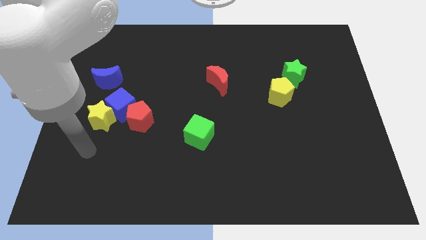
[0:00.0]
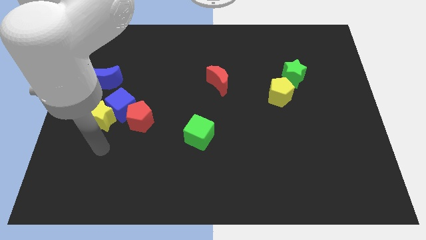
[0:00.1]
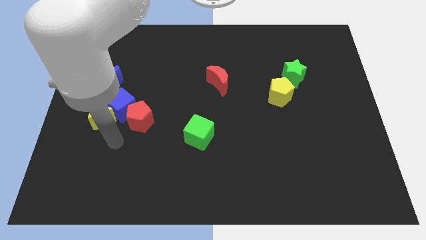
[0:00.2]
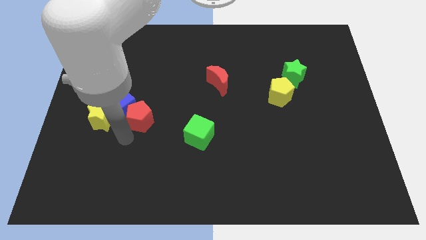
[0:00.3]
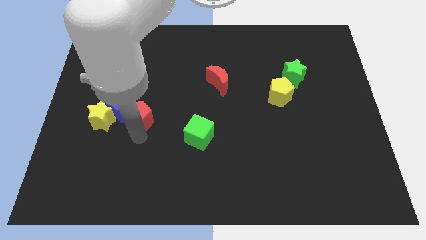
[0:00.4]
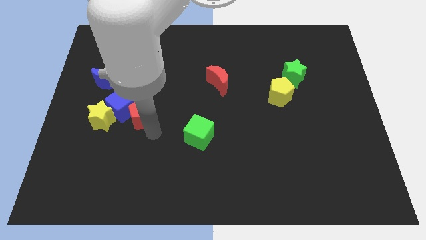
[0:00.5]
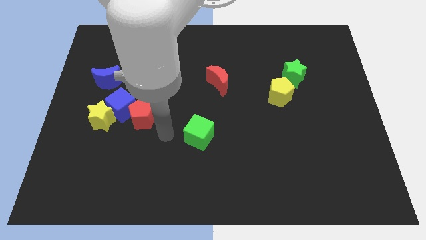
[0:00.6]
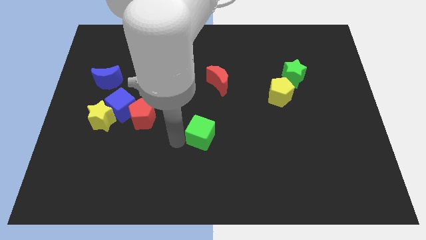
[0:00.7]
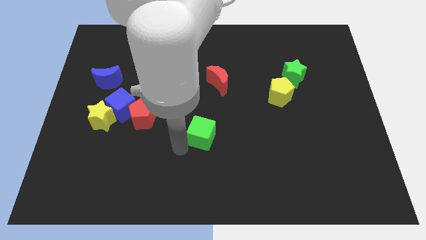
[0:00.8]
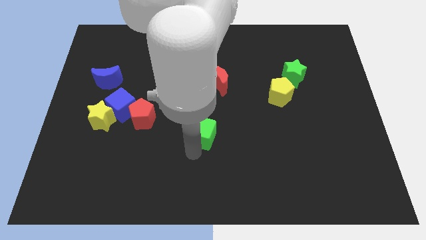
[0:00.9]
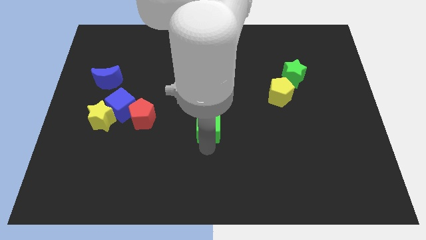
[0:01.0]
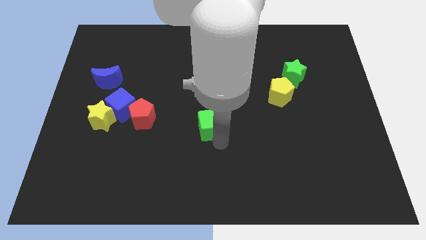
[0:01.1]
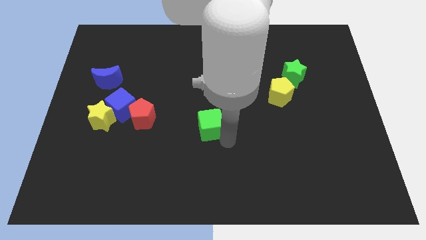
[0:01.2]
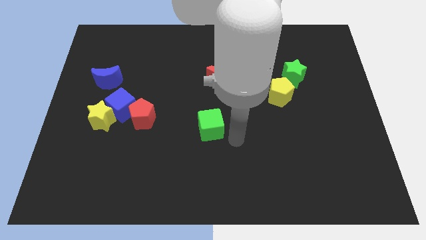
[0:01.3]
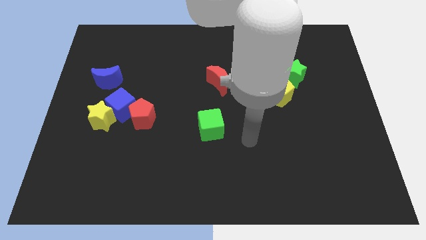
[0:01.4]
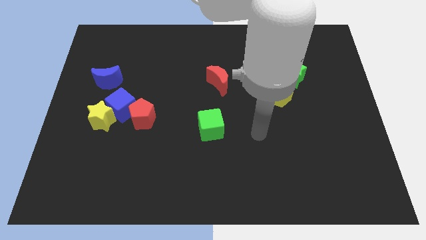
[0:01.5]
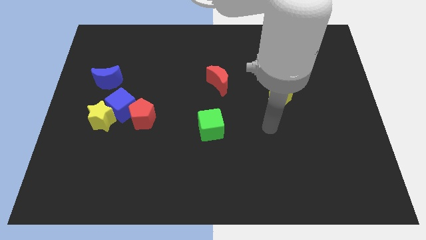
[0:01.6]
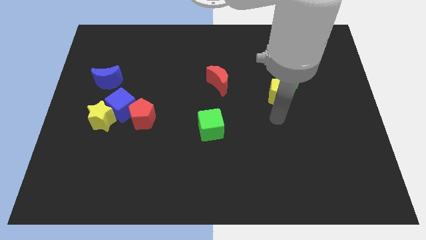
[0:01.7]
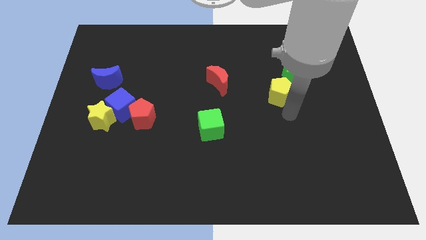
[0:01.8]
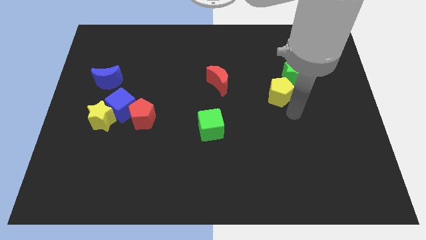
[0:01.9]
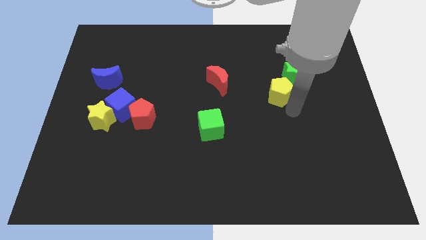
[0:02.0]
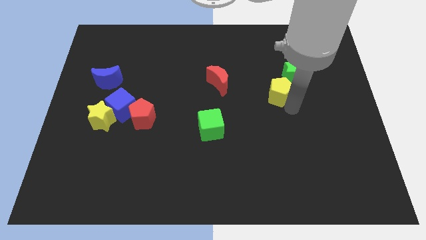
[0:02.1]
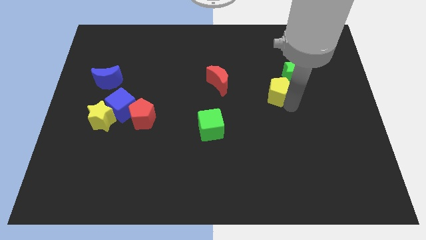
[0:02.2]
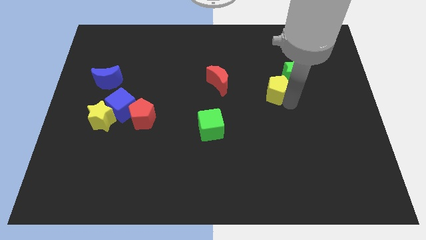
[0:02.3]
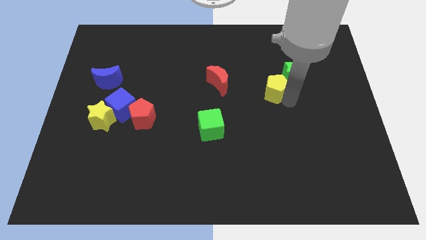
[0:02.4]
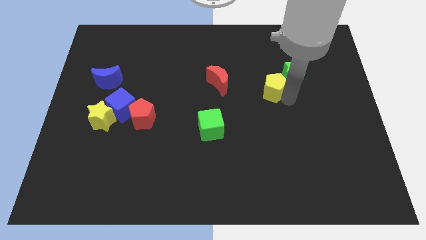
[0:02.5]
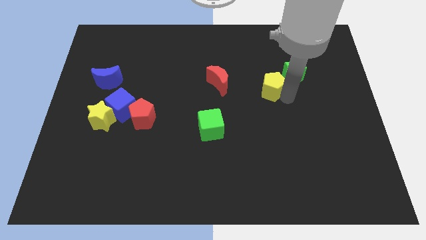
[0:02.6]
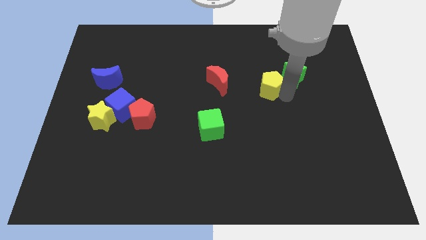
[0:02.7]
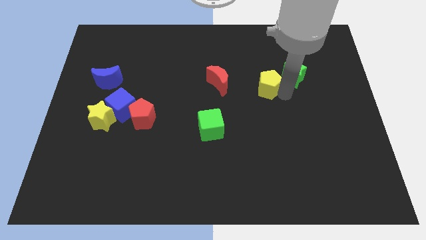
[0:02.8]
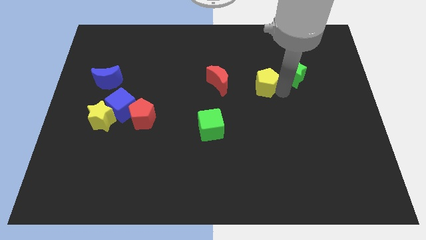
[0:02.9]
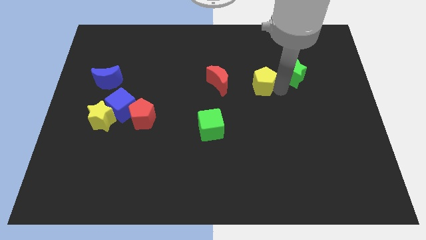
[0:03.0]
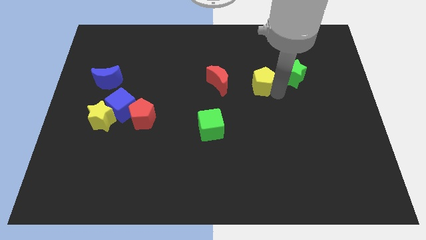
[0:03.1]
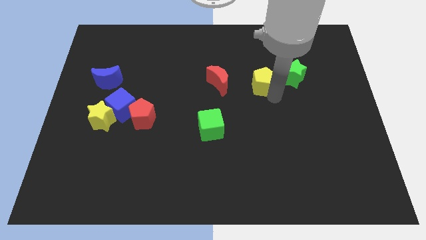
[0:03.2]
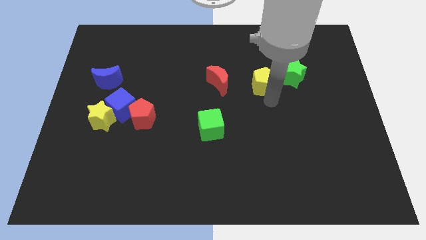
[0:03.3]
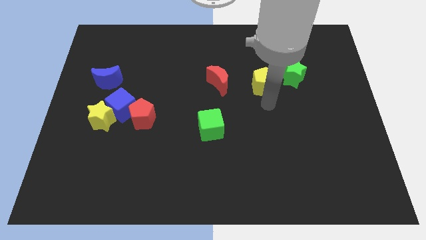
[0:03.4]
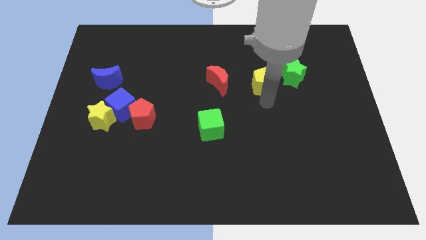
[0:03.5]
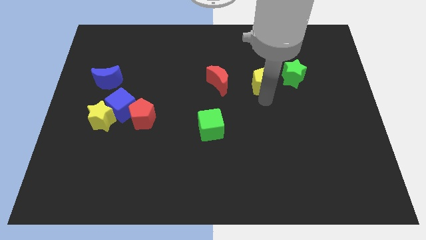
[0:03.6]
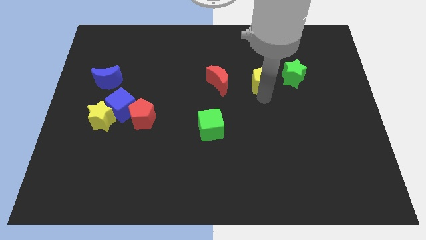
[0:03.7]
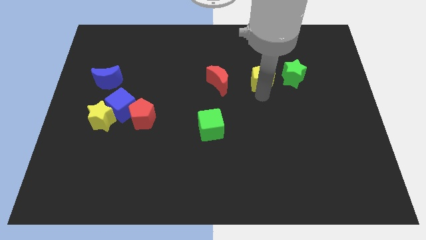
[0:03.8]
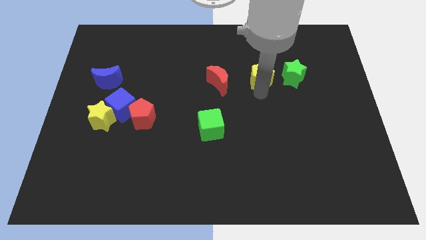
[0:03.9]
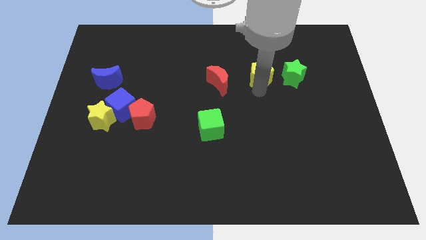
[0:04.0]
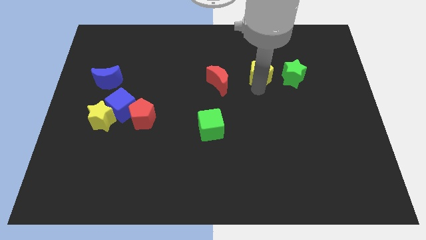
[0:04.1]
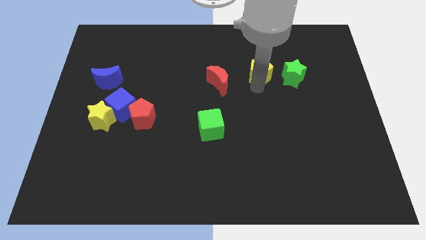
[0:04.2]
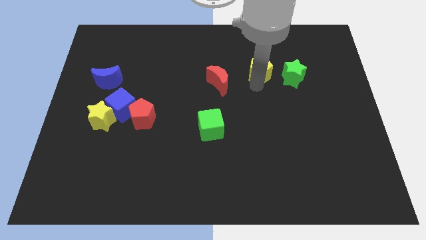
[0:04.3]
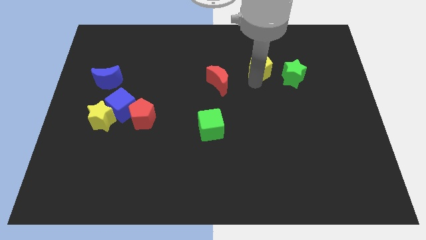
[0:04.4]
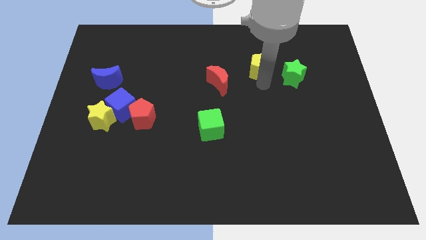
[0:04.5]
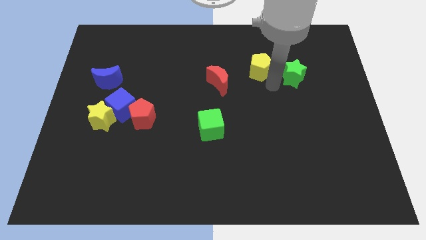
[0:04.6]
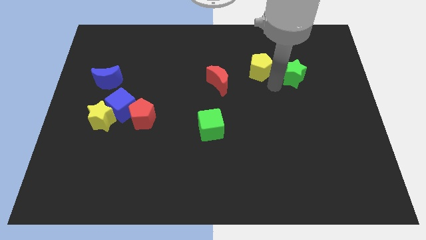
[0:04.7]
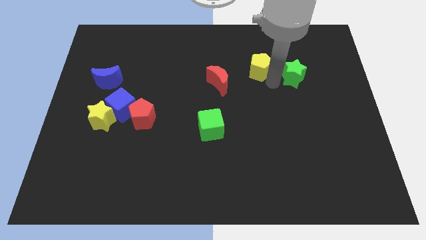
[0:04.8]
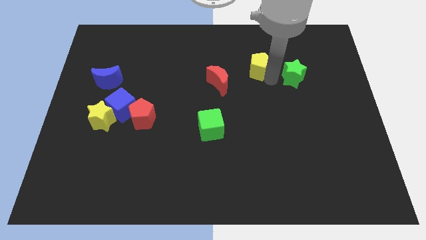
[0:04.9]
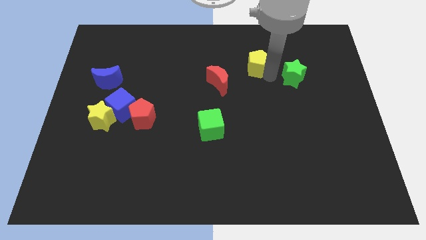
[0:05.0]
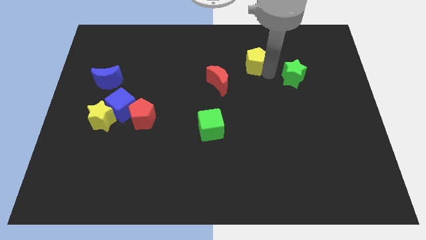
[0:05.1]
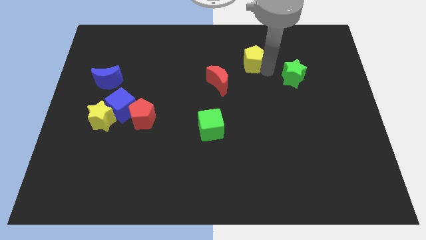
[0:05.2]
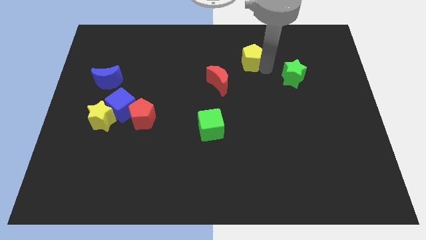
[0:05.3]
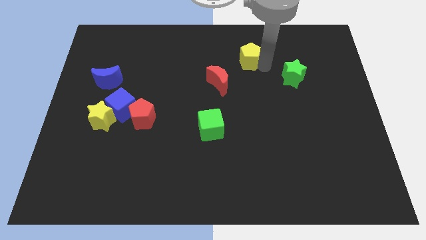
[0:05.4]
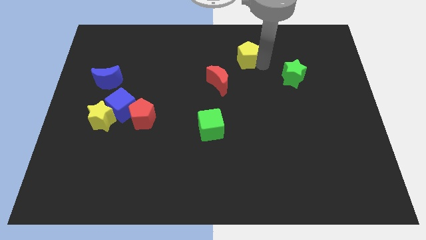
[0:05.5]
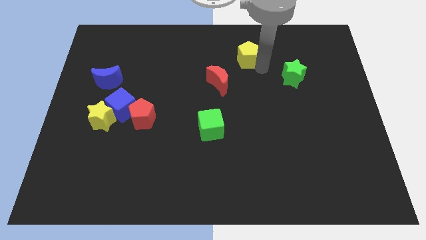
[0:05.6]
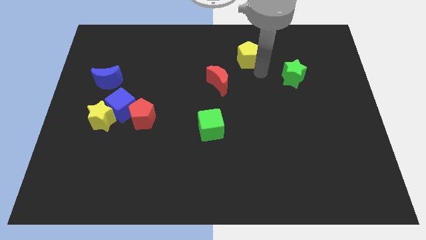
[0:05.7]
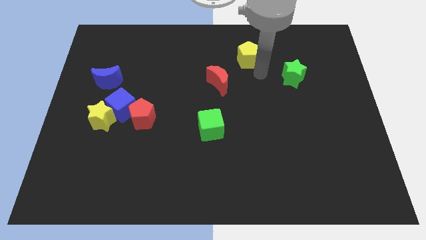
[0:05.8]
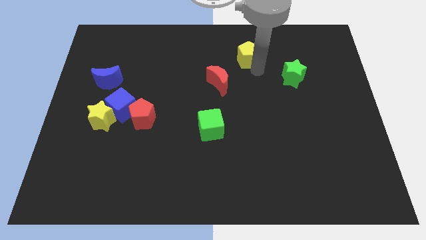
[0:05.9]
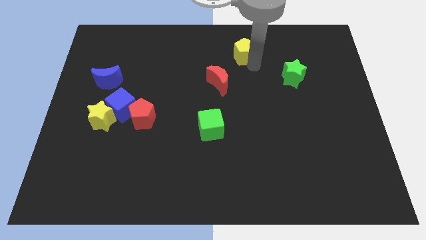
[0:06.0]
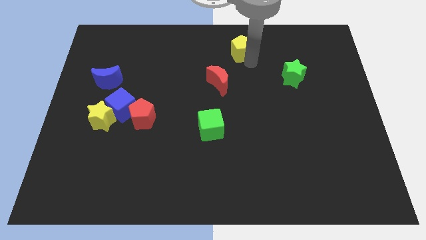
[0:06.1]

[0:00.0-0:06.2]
push the yellow pentagon to the top
